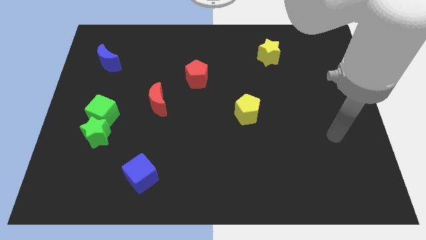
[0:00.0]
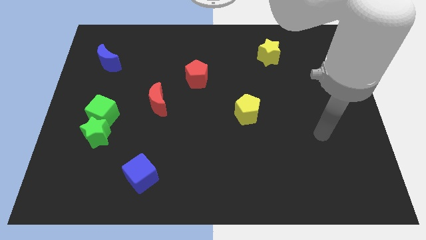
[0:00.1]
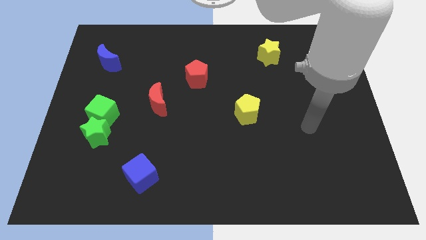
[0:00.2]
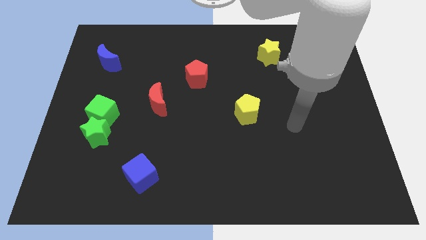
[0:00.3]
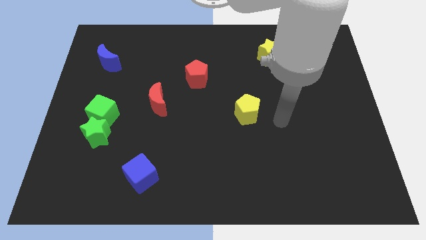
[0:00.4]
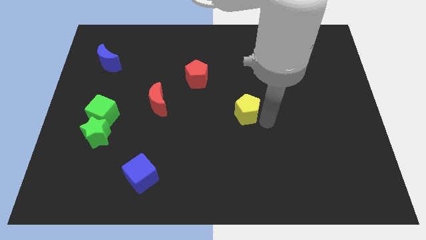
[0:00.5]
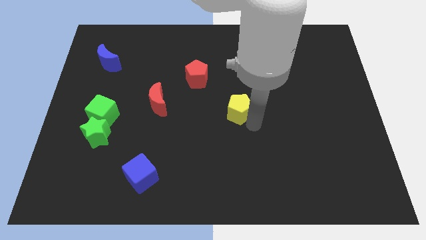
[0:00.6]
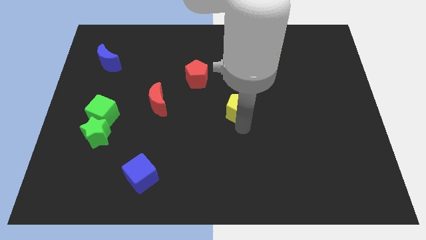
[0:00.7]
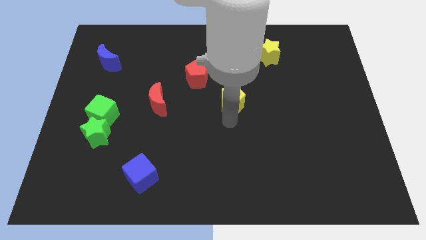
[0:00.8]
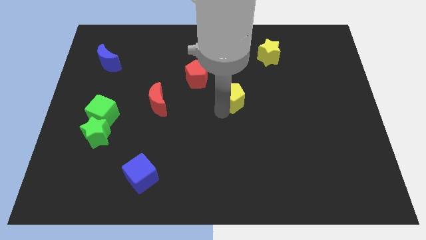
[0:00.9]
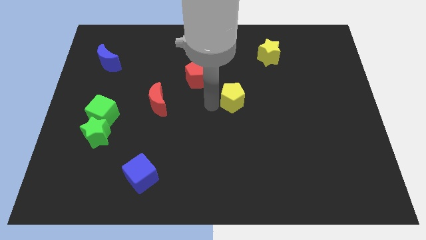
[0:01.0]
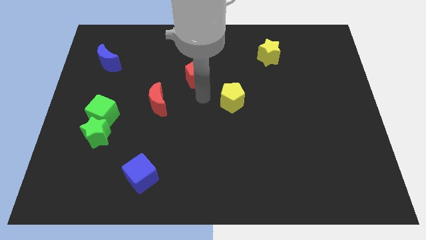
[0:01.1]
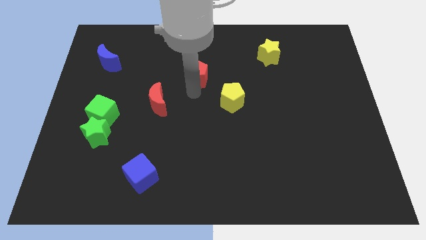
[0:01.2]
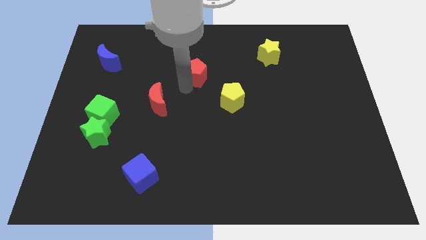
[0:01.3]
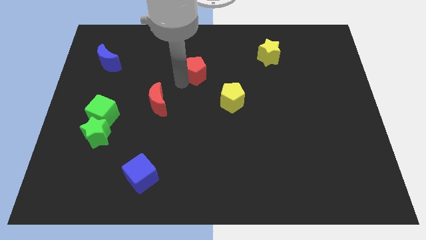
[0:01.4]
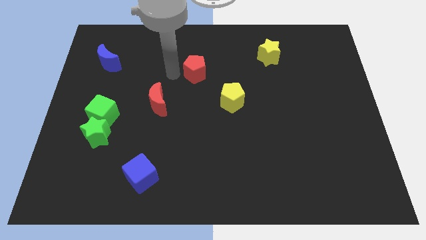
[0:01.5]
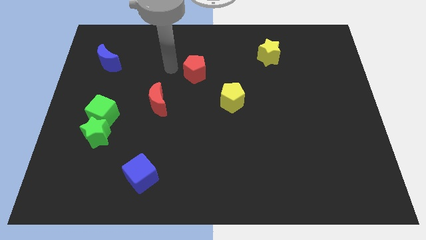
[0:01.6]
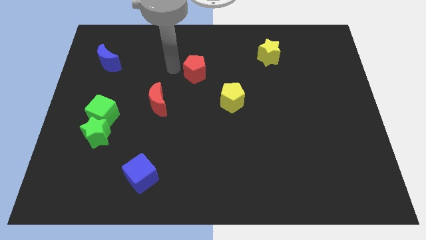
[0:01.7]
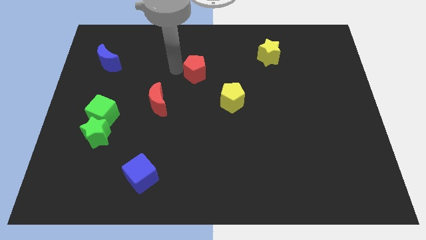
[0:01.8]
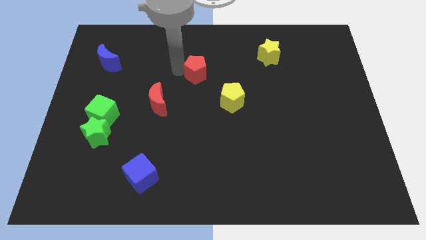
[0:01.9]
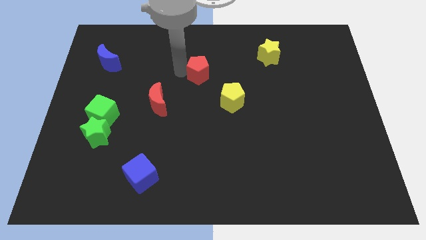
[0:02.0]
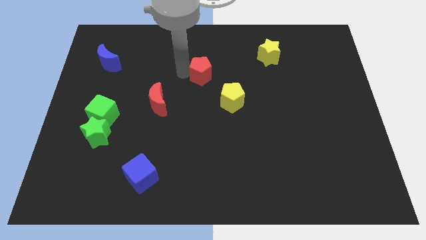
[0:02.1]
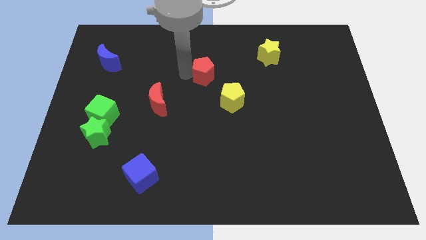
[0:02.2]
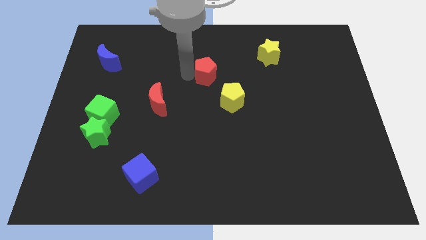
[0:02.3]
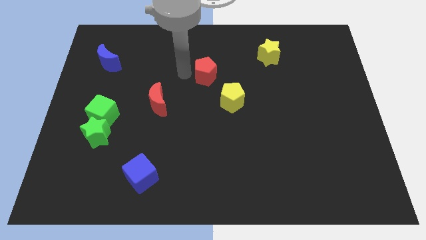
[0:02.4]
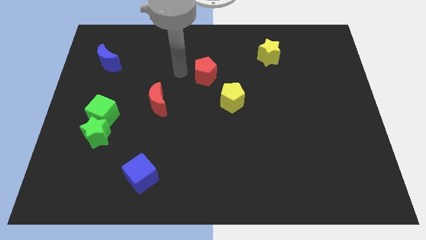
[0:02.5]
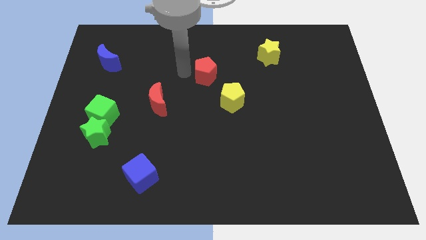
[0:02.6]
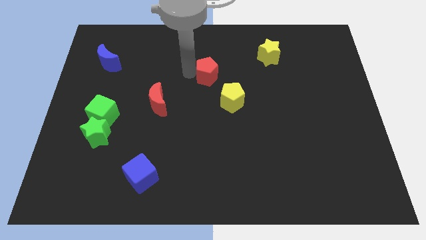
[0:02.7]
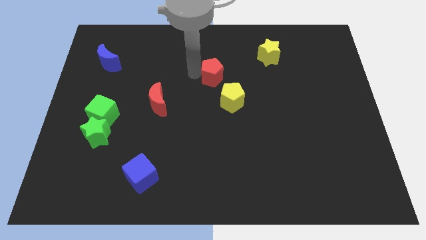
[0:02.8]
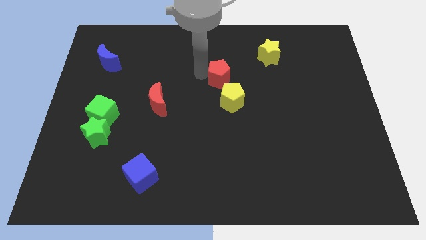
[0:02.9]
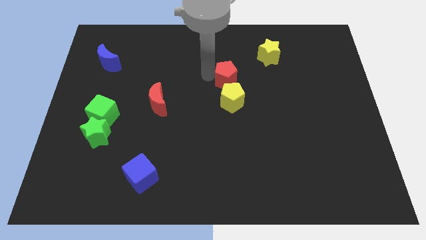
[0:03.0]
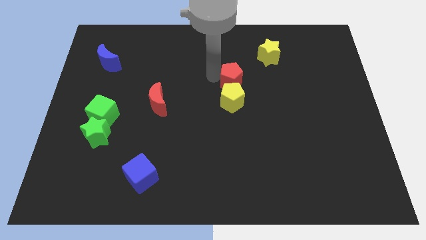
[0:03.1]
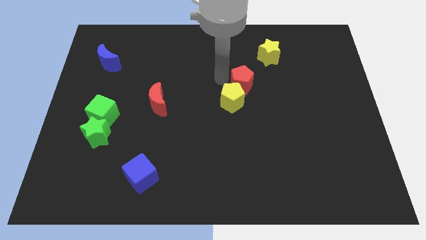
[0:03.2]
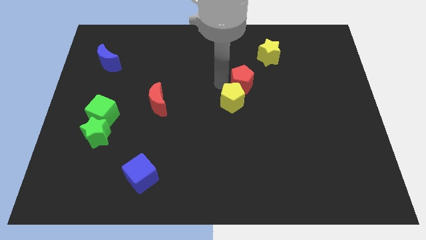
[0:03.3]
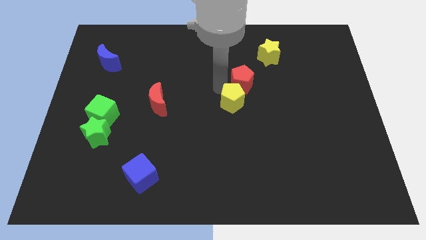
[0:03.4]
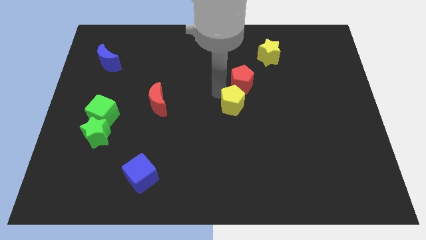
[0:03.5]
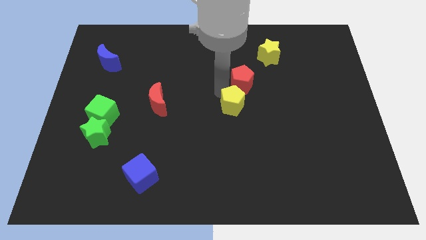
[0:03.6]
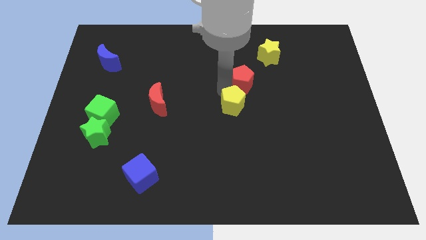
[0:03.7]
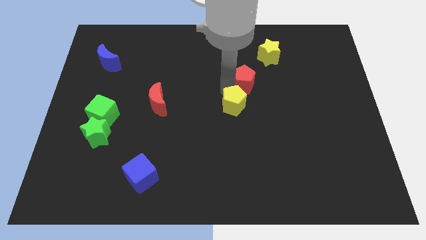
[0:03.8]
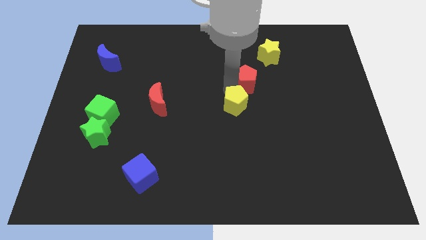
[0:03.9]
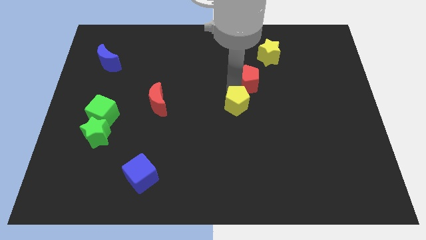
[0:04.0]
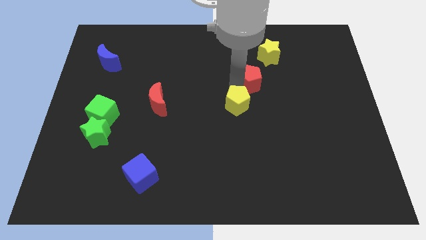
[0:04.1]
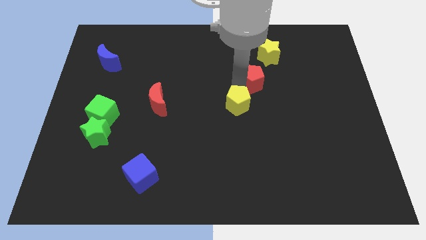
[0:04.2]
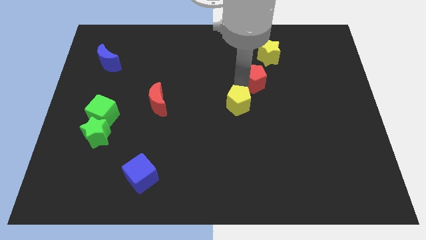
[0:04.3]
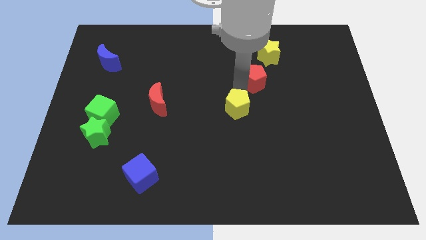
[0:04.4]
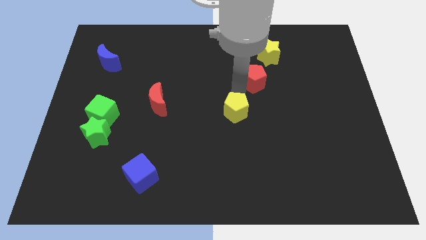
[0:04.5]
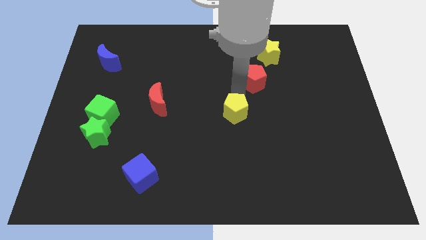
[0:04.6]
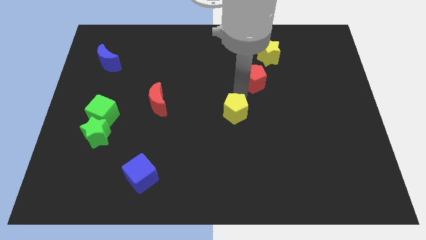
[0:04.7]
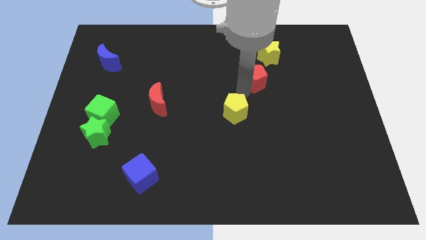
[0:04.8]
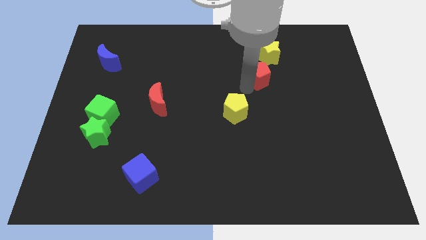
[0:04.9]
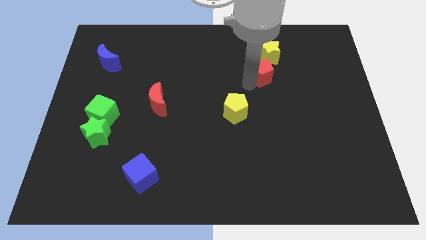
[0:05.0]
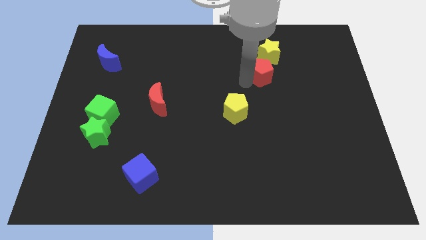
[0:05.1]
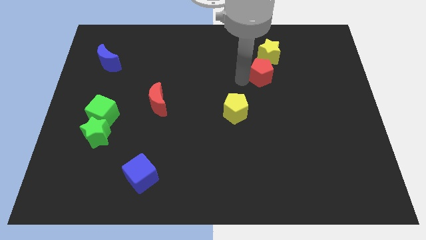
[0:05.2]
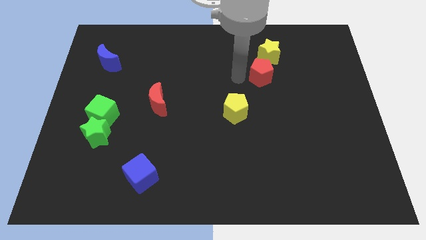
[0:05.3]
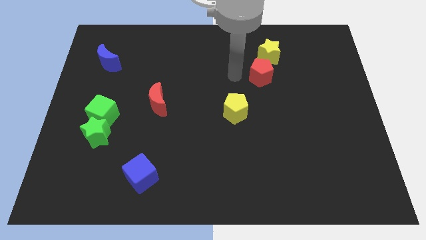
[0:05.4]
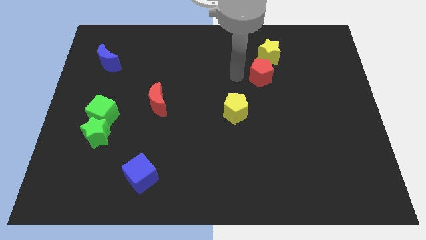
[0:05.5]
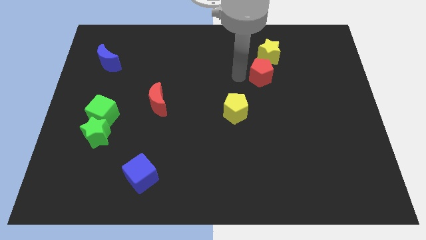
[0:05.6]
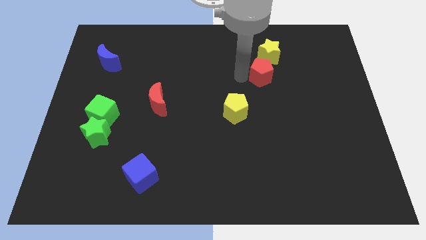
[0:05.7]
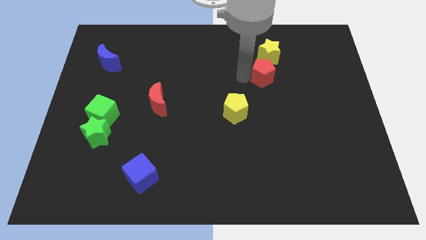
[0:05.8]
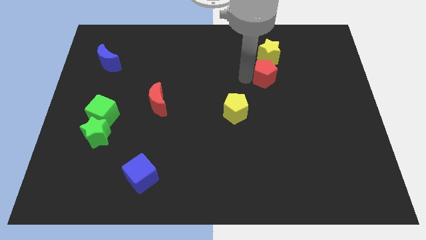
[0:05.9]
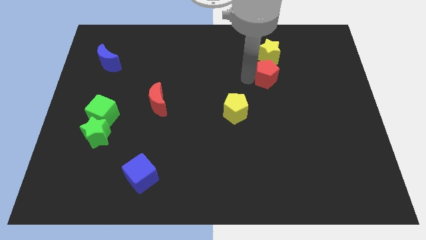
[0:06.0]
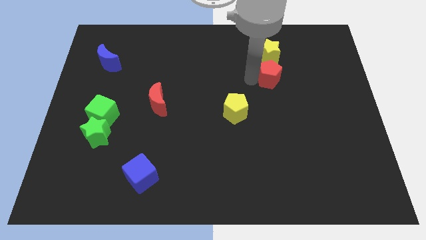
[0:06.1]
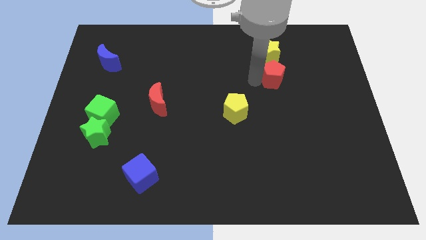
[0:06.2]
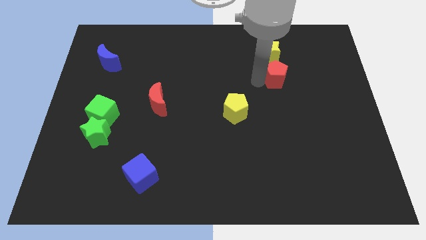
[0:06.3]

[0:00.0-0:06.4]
move the red pentagon right

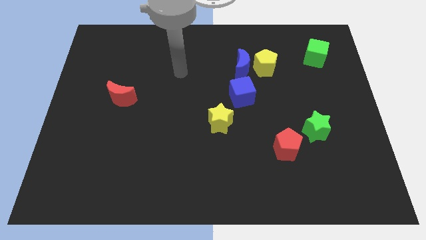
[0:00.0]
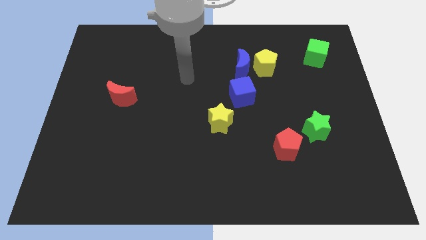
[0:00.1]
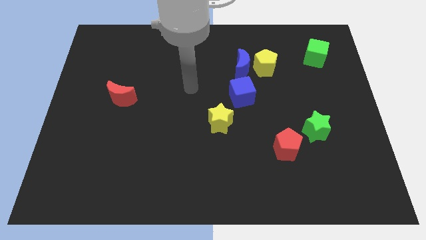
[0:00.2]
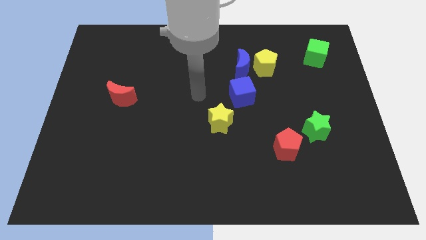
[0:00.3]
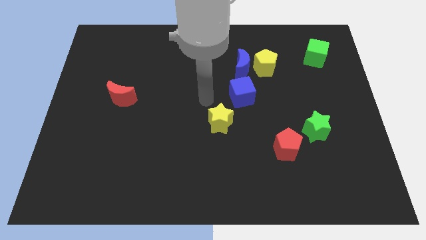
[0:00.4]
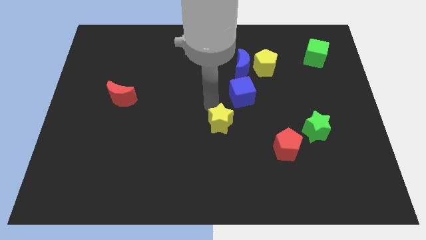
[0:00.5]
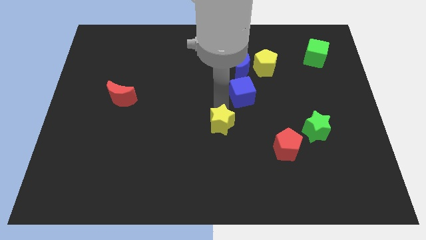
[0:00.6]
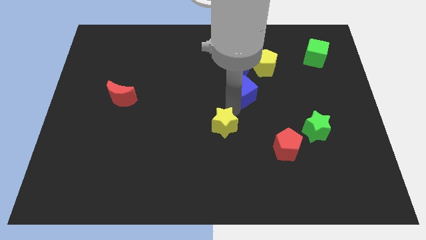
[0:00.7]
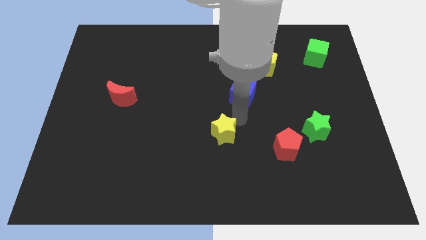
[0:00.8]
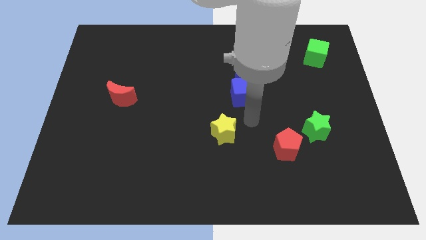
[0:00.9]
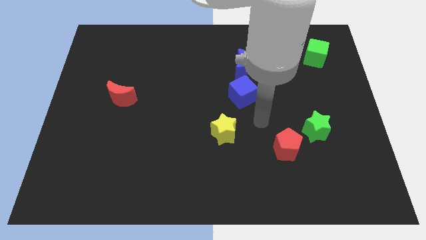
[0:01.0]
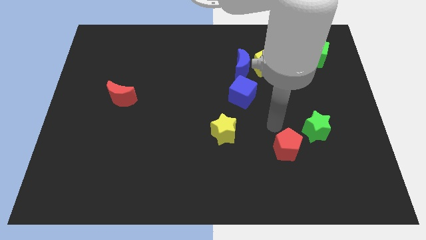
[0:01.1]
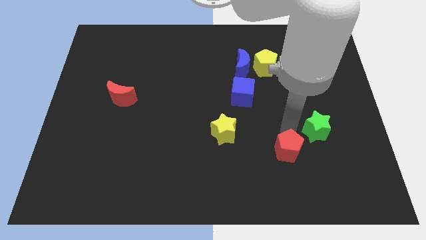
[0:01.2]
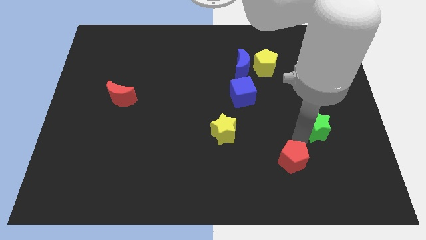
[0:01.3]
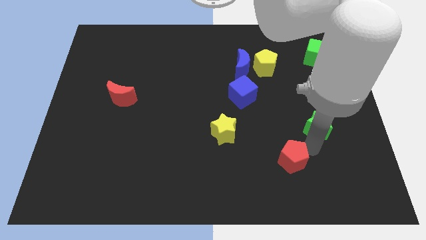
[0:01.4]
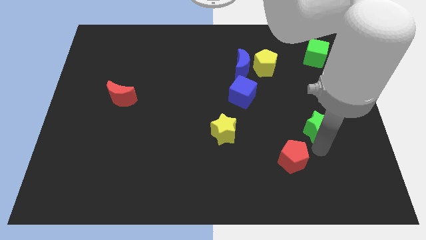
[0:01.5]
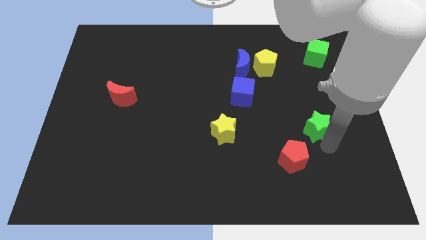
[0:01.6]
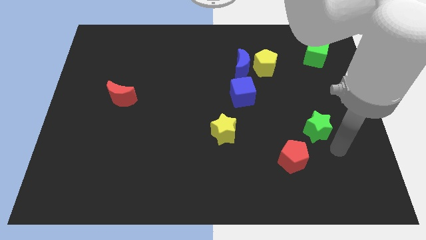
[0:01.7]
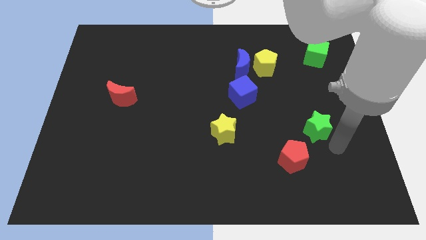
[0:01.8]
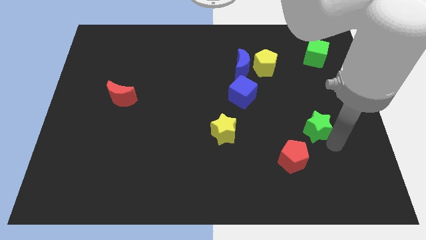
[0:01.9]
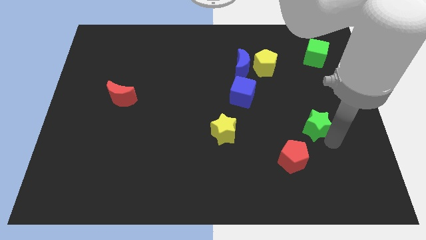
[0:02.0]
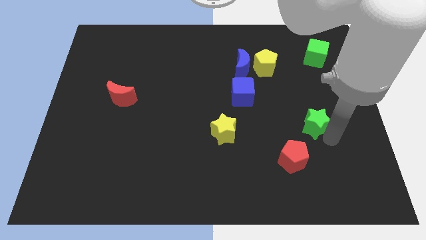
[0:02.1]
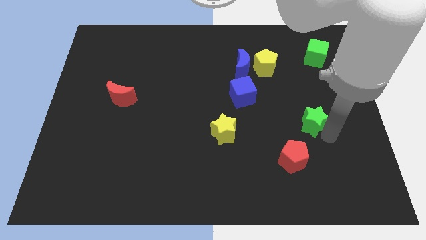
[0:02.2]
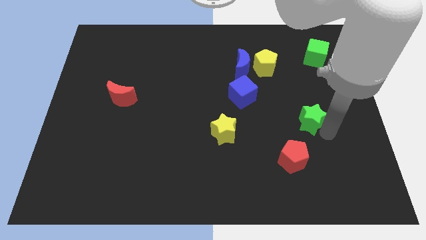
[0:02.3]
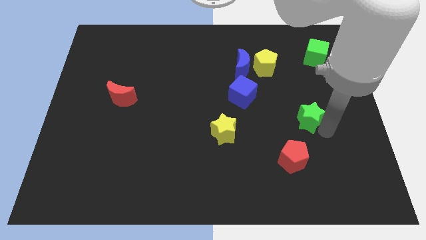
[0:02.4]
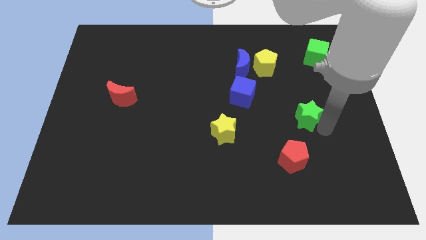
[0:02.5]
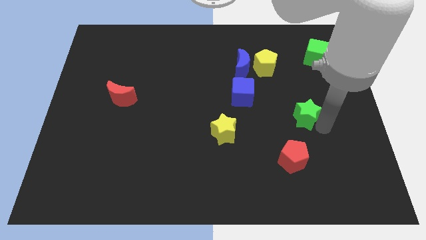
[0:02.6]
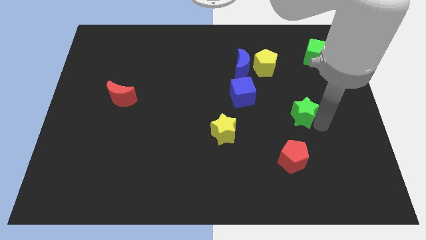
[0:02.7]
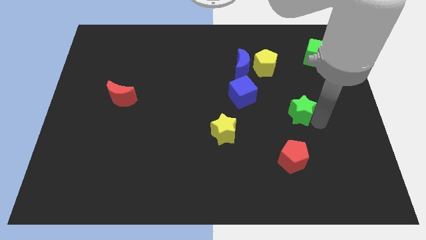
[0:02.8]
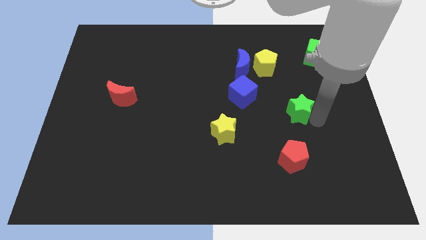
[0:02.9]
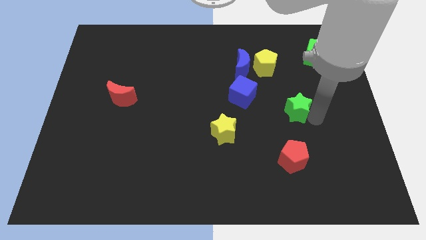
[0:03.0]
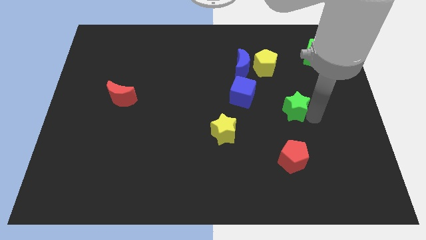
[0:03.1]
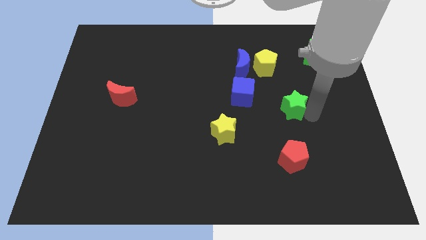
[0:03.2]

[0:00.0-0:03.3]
slide the green star a little bit upwards and left
